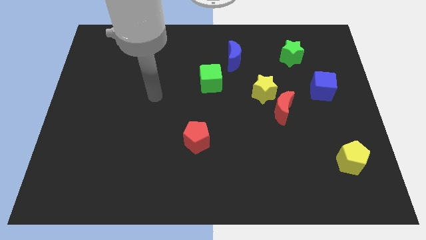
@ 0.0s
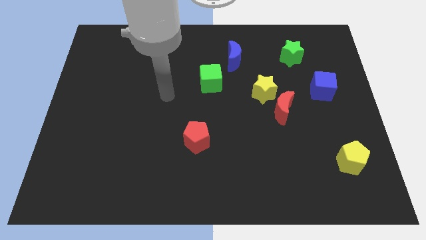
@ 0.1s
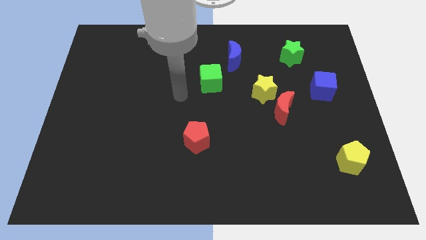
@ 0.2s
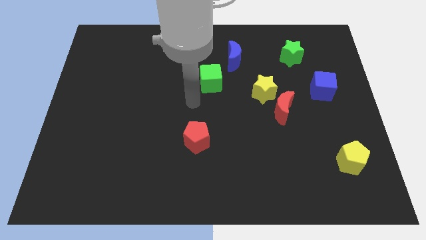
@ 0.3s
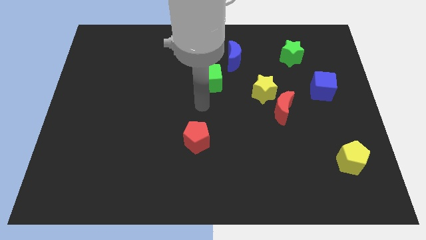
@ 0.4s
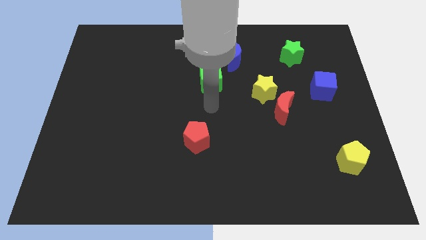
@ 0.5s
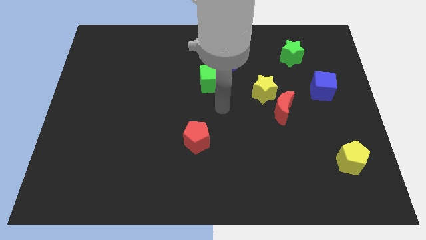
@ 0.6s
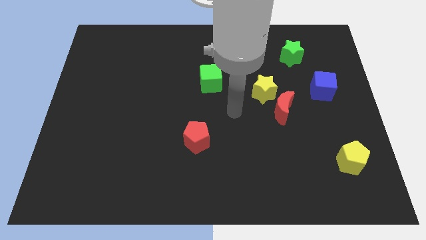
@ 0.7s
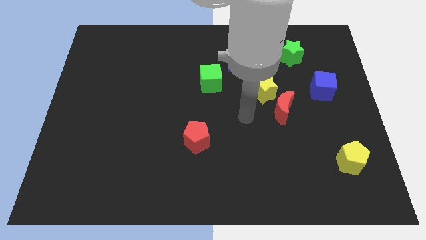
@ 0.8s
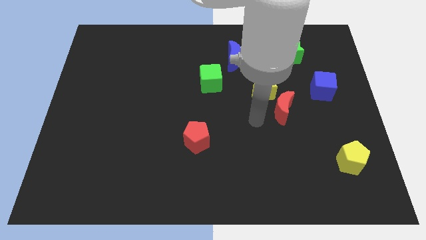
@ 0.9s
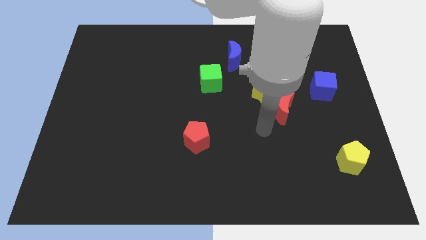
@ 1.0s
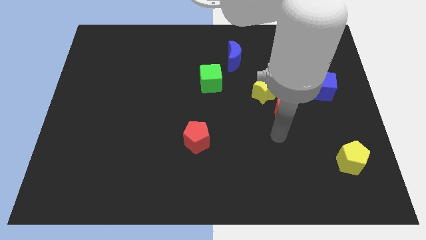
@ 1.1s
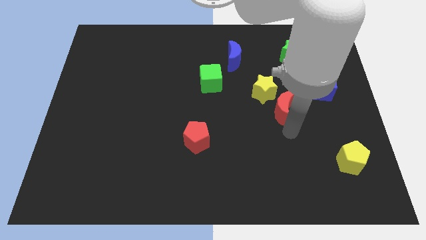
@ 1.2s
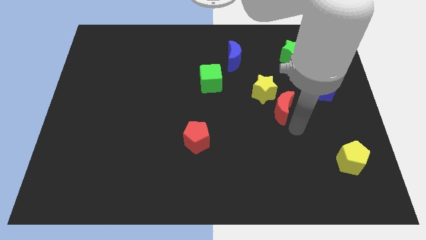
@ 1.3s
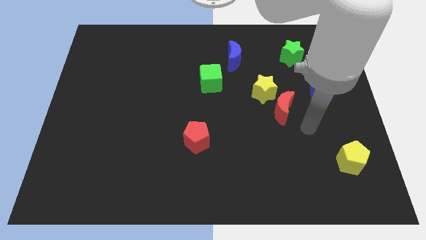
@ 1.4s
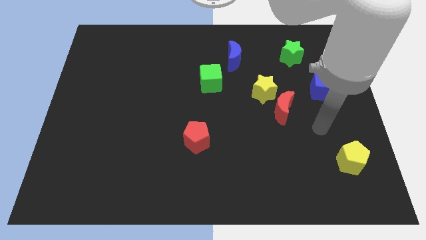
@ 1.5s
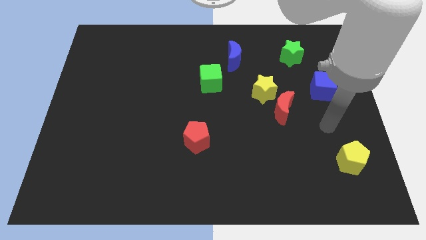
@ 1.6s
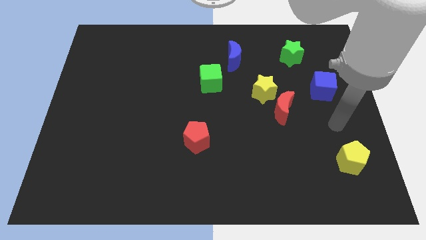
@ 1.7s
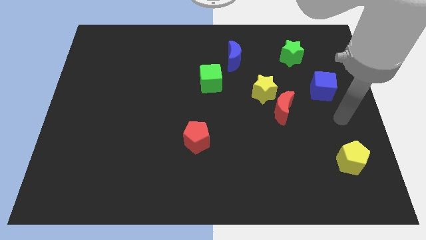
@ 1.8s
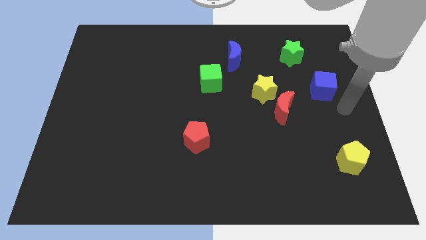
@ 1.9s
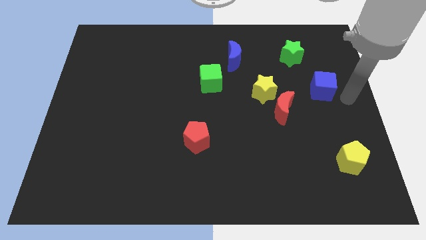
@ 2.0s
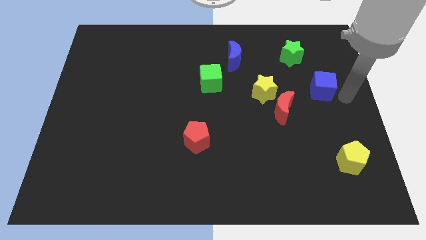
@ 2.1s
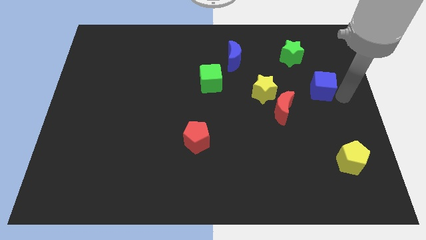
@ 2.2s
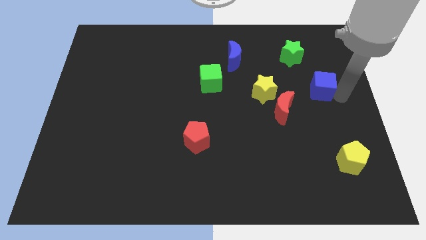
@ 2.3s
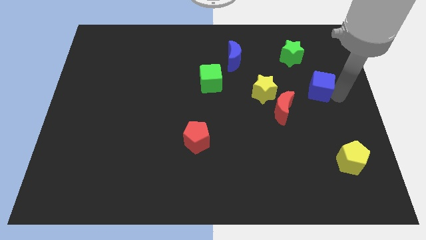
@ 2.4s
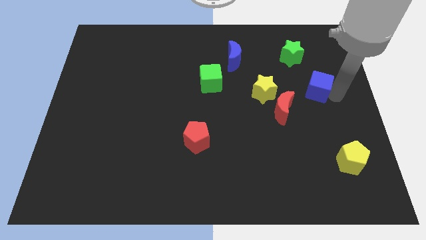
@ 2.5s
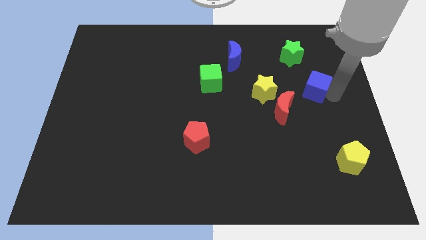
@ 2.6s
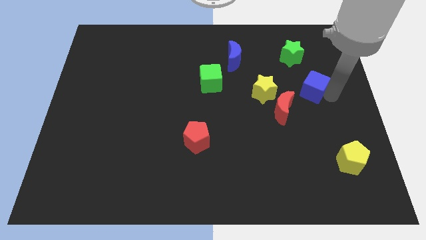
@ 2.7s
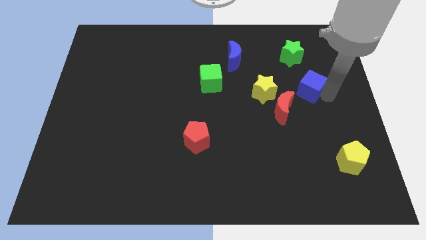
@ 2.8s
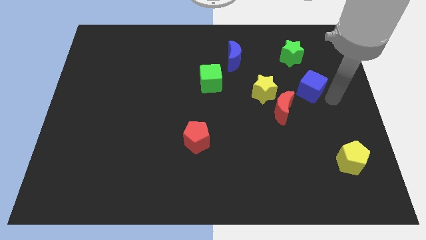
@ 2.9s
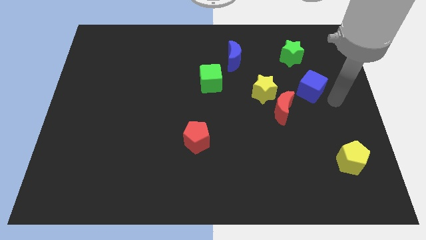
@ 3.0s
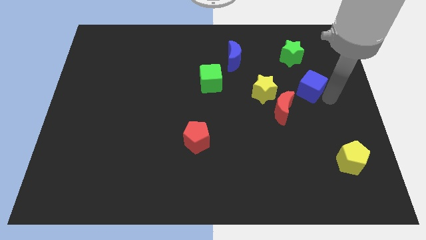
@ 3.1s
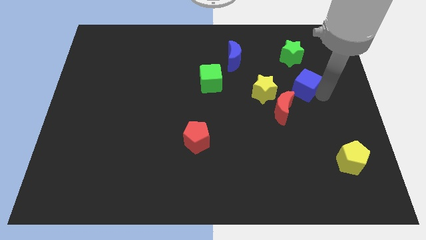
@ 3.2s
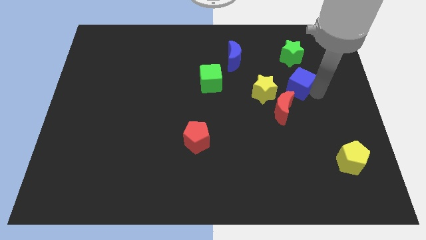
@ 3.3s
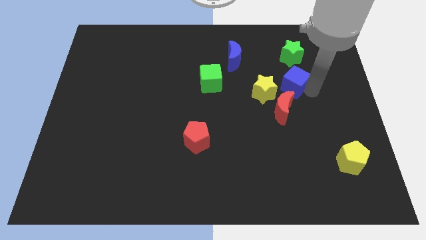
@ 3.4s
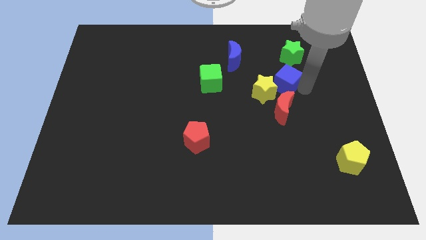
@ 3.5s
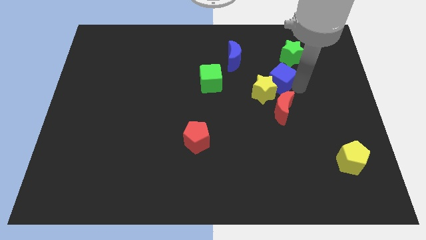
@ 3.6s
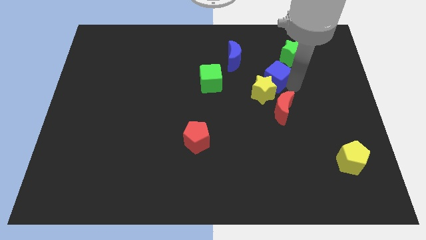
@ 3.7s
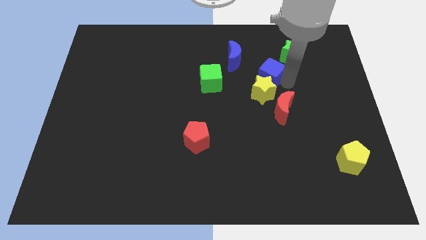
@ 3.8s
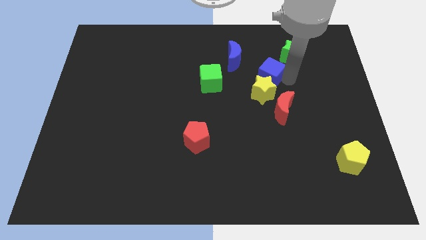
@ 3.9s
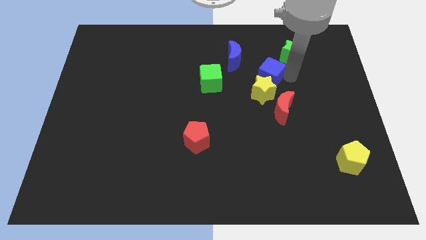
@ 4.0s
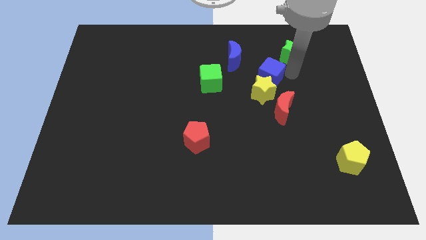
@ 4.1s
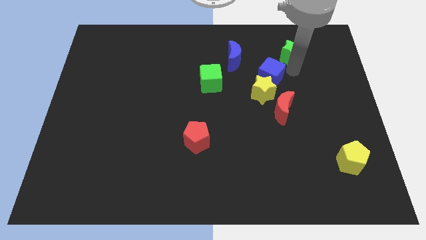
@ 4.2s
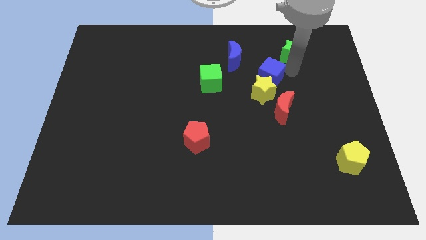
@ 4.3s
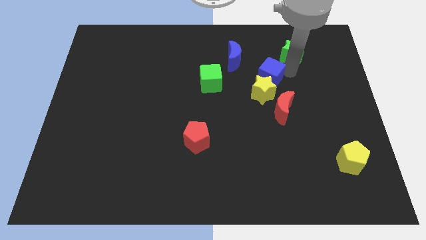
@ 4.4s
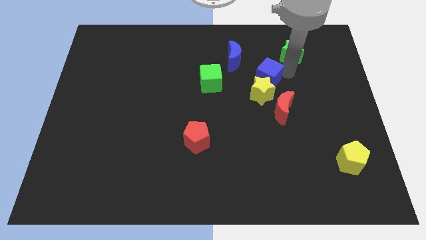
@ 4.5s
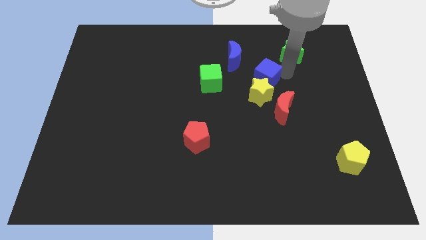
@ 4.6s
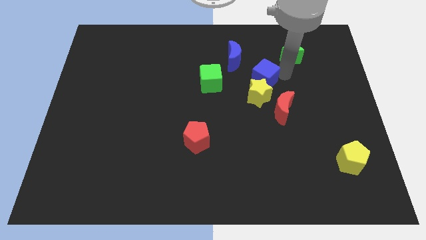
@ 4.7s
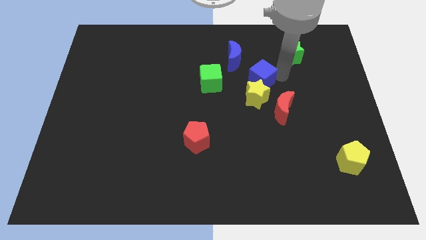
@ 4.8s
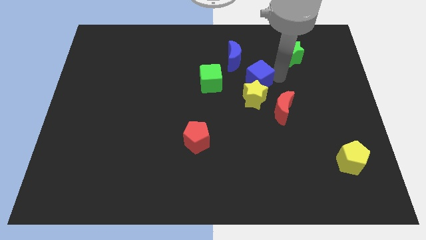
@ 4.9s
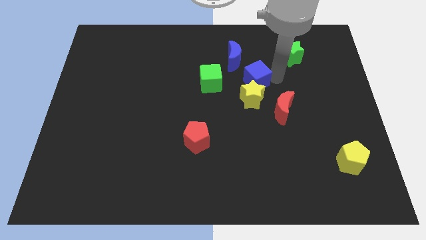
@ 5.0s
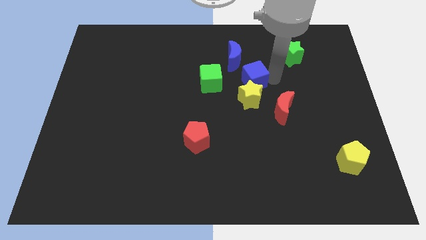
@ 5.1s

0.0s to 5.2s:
slide the blue cube to the bottom of the blue moon

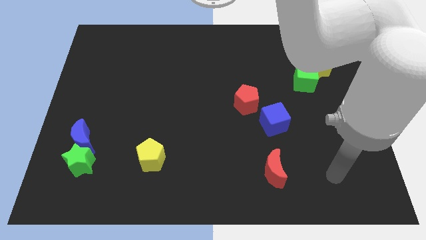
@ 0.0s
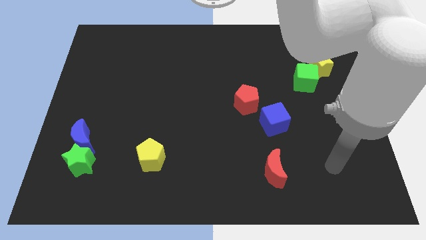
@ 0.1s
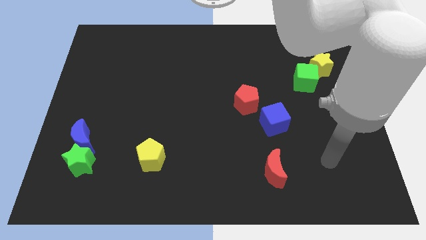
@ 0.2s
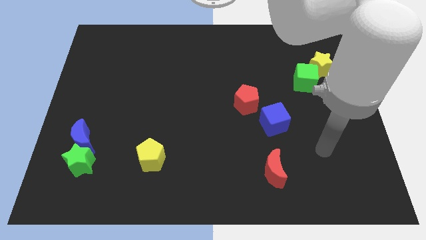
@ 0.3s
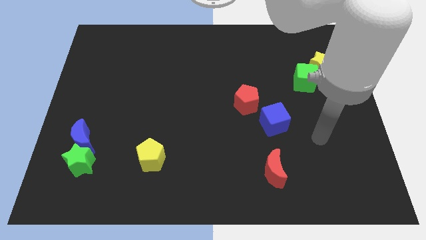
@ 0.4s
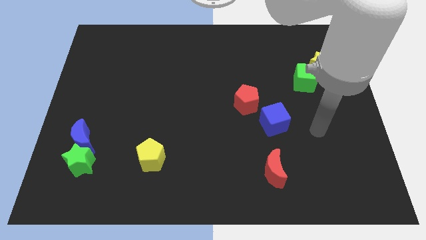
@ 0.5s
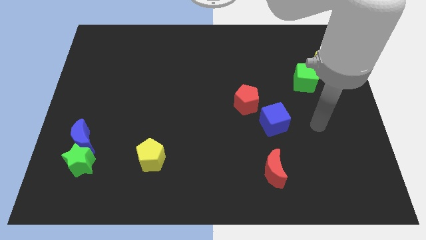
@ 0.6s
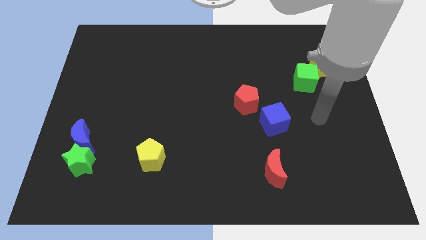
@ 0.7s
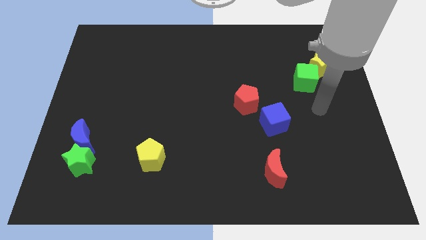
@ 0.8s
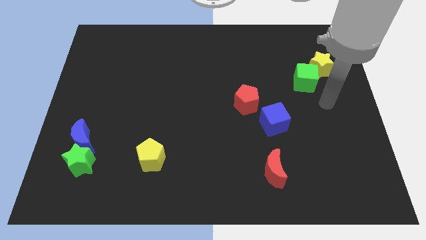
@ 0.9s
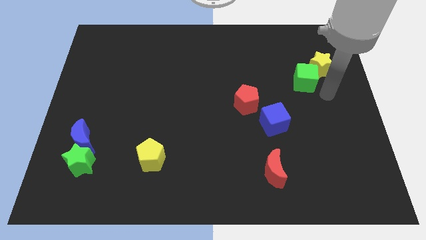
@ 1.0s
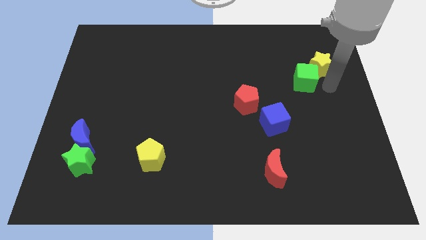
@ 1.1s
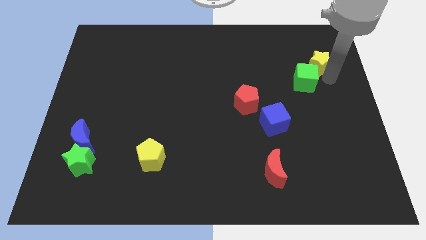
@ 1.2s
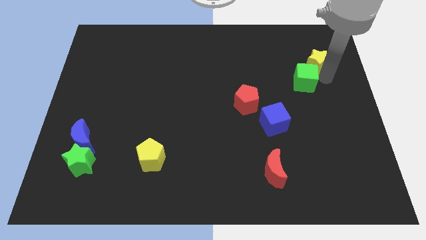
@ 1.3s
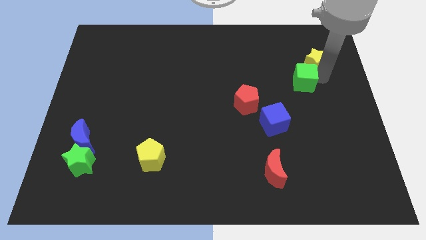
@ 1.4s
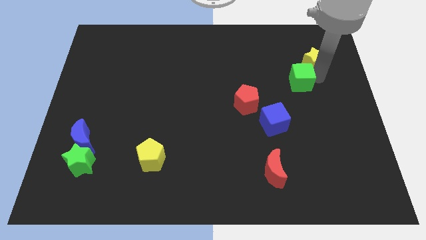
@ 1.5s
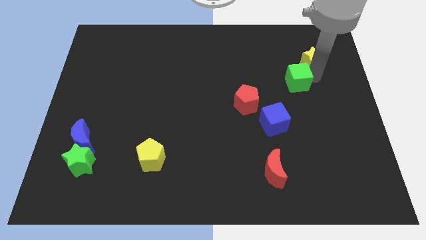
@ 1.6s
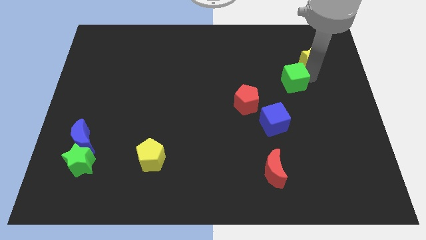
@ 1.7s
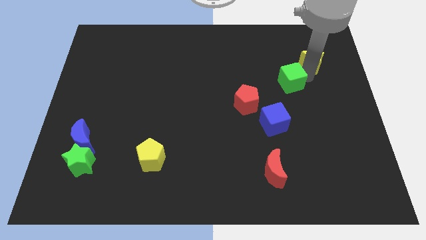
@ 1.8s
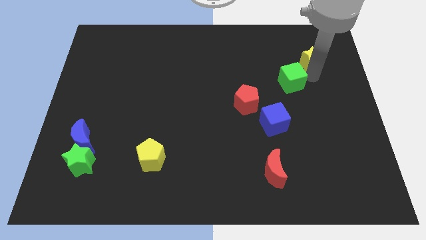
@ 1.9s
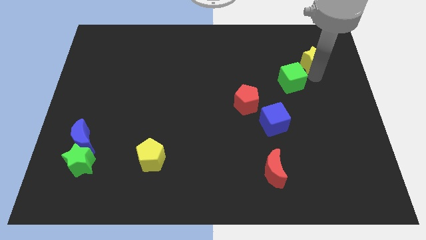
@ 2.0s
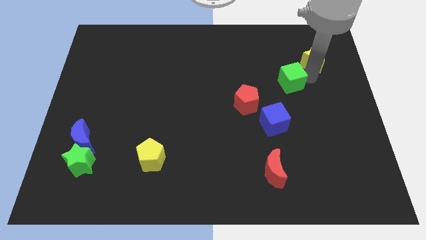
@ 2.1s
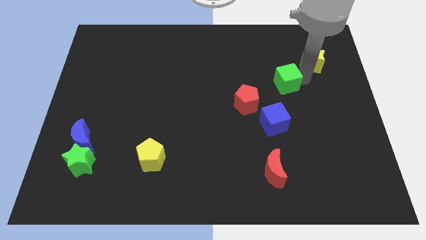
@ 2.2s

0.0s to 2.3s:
push the green cube to the top right side of the red pentagon
